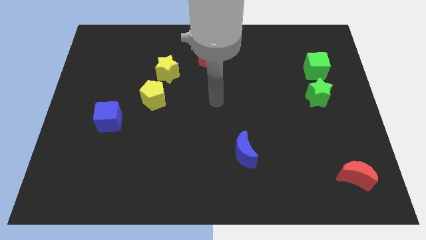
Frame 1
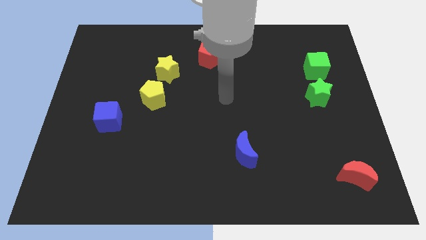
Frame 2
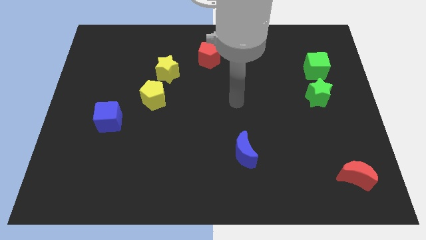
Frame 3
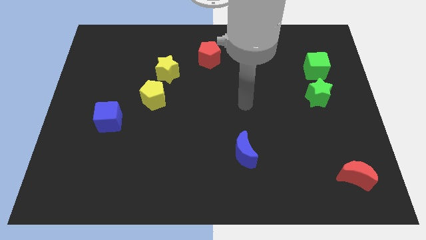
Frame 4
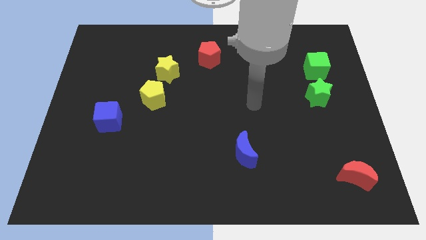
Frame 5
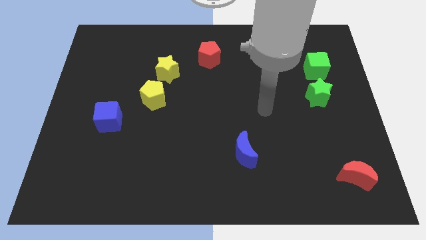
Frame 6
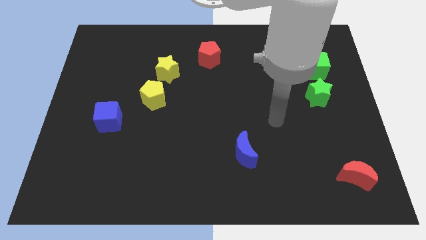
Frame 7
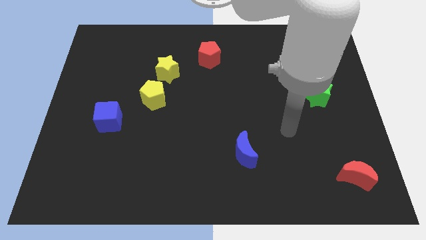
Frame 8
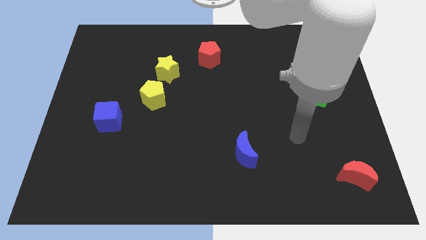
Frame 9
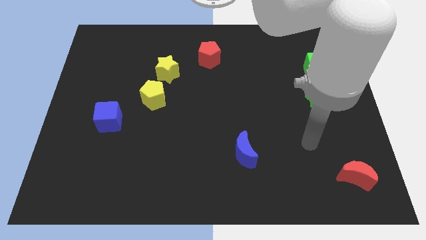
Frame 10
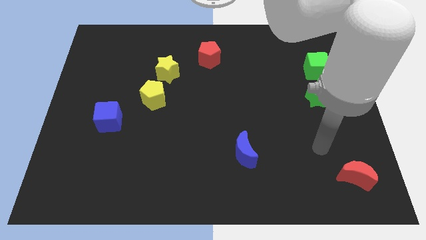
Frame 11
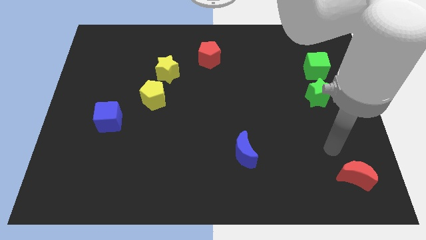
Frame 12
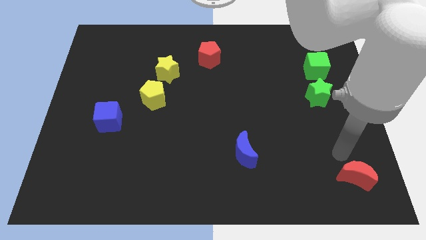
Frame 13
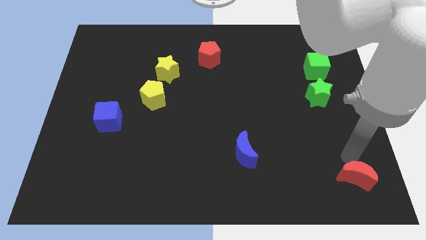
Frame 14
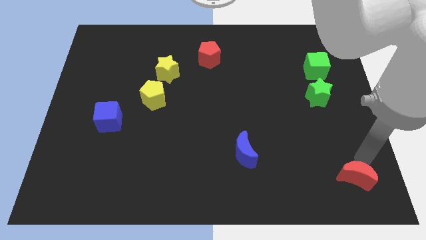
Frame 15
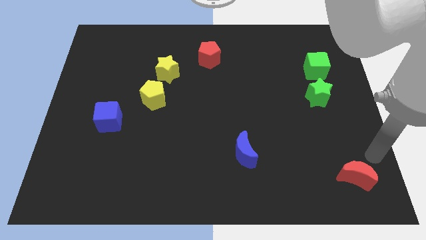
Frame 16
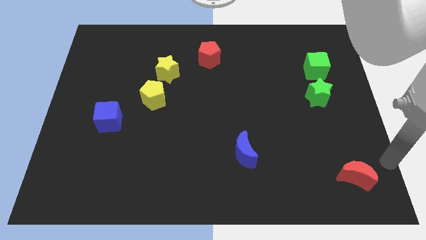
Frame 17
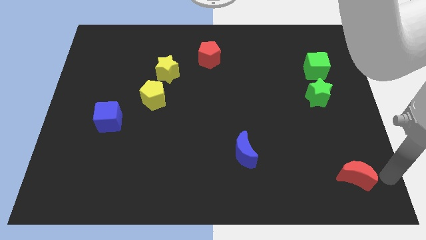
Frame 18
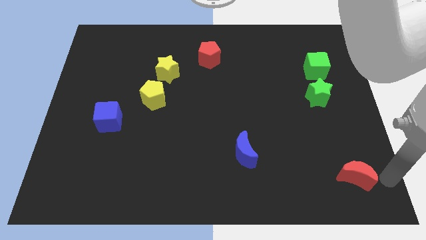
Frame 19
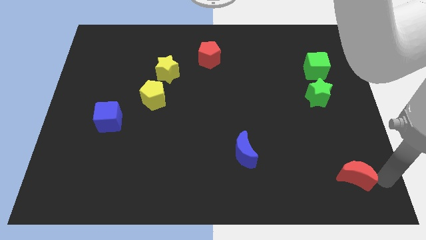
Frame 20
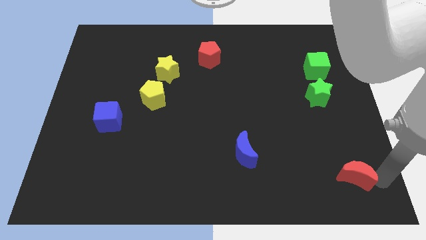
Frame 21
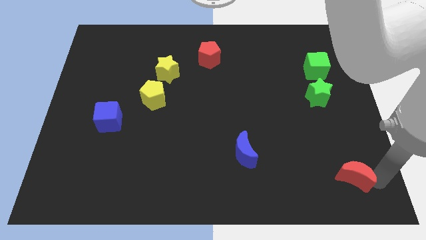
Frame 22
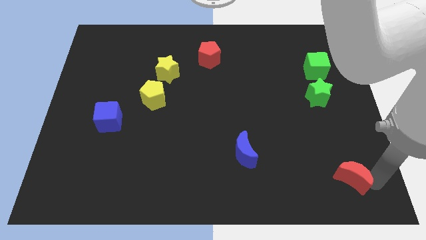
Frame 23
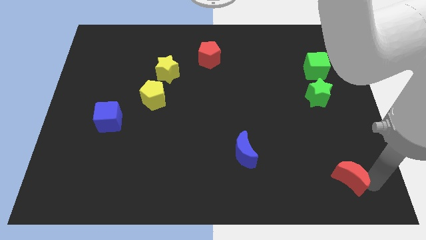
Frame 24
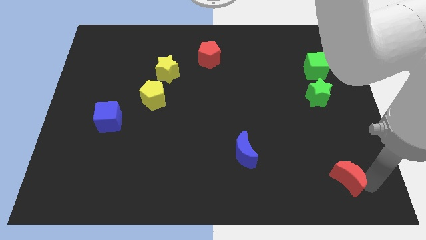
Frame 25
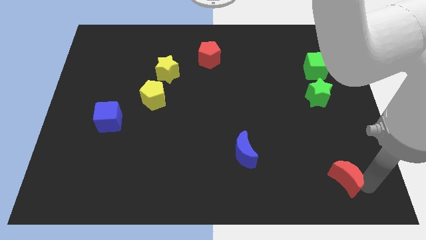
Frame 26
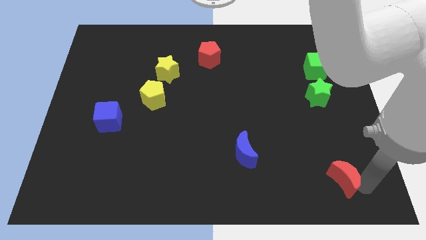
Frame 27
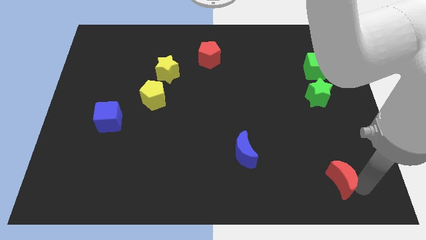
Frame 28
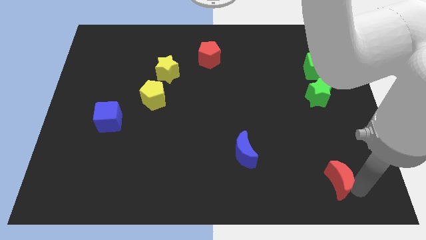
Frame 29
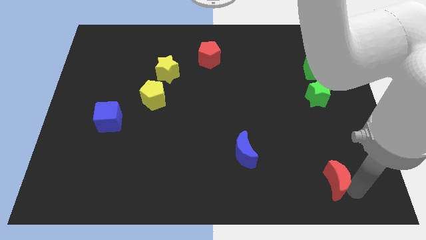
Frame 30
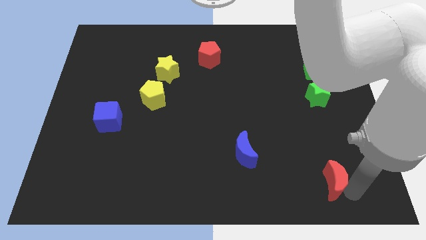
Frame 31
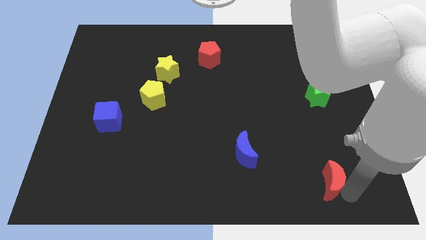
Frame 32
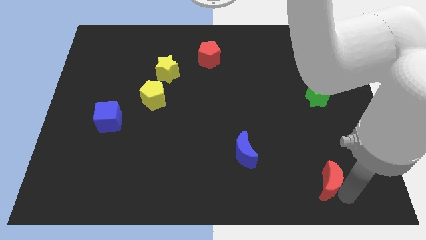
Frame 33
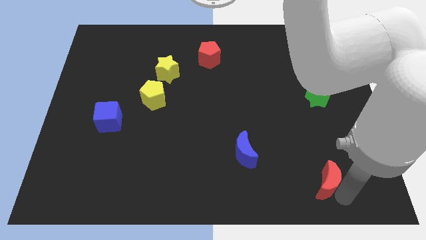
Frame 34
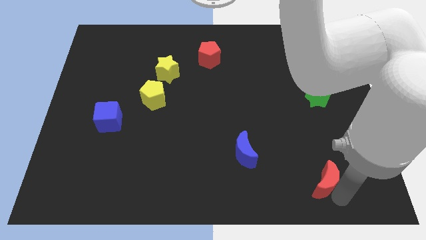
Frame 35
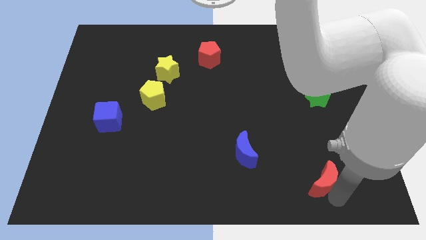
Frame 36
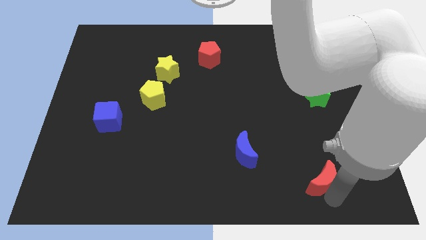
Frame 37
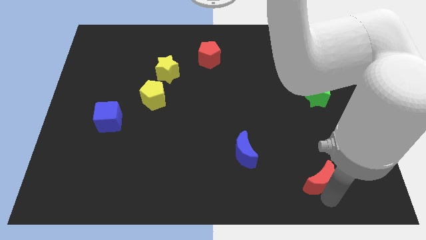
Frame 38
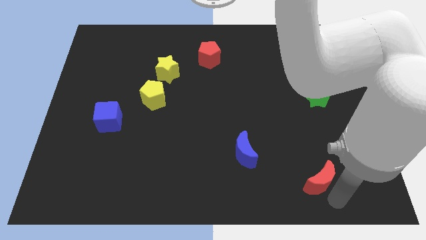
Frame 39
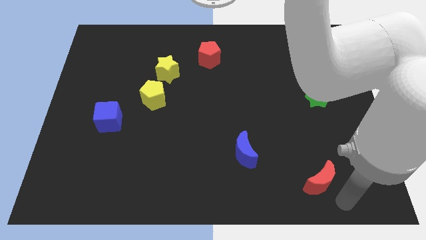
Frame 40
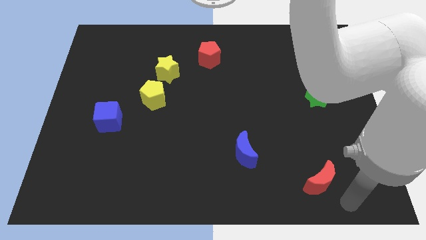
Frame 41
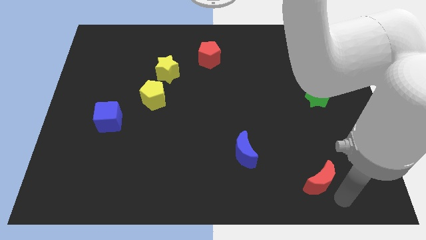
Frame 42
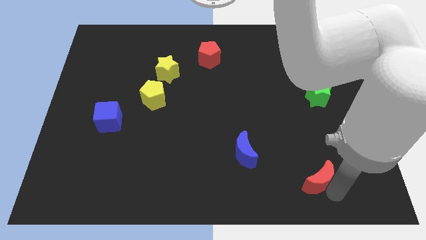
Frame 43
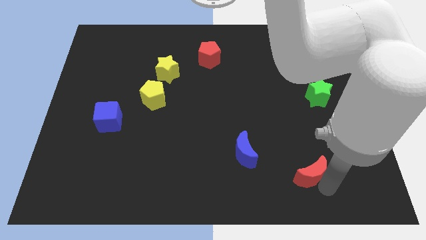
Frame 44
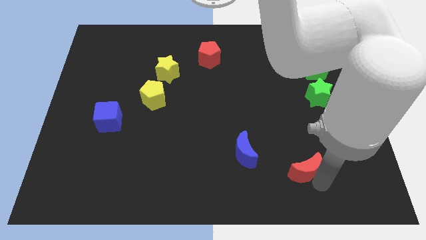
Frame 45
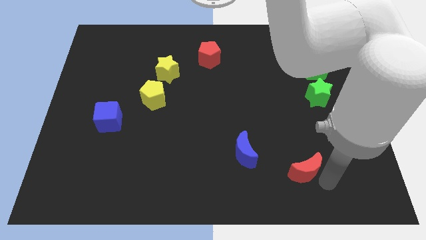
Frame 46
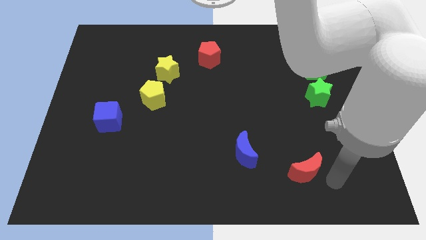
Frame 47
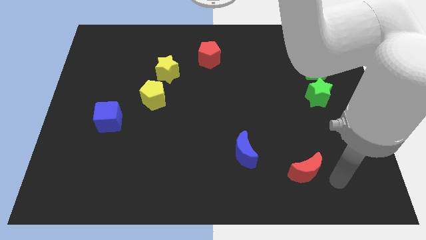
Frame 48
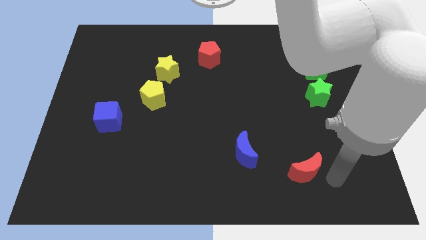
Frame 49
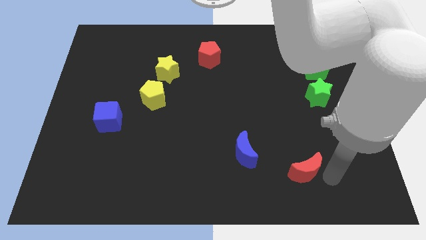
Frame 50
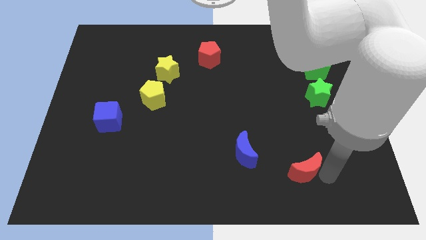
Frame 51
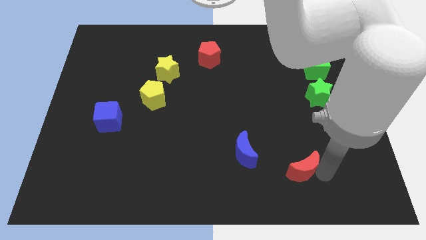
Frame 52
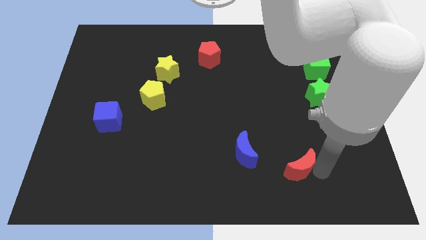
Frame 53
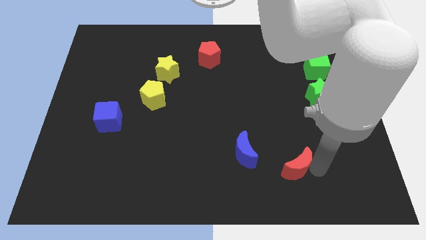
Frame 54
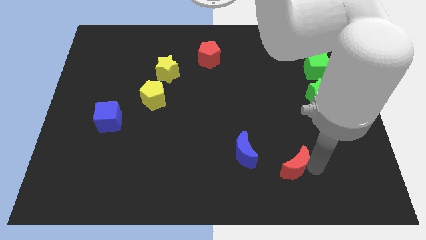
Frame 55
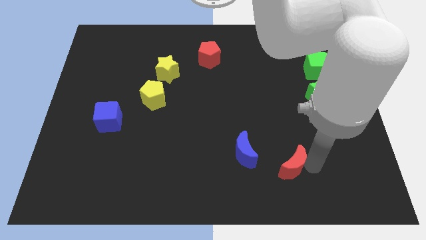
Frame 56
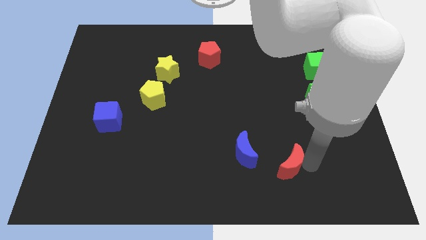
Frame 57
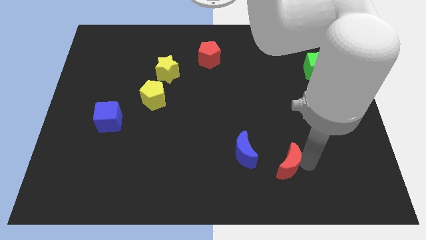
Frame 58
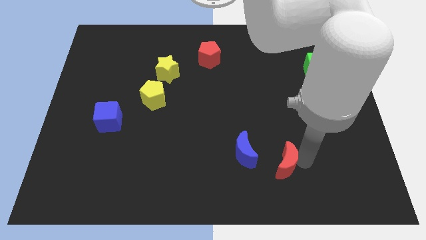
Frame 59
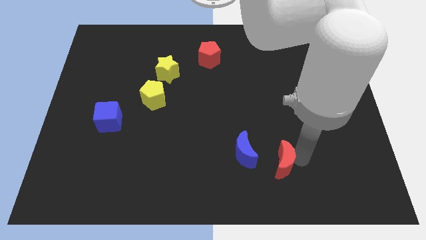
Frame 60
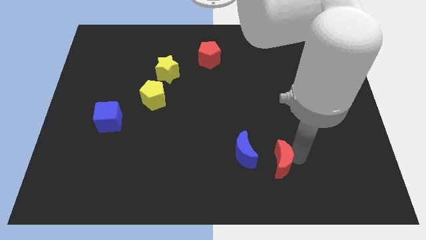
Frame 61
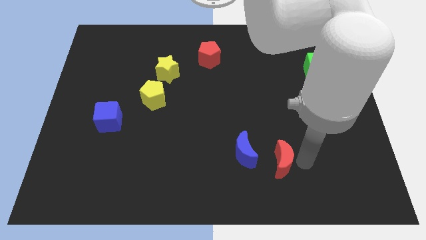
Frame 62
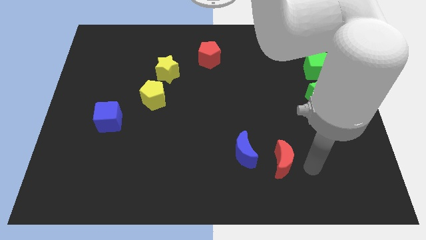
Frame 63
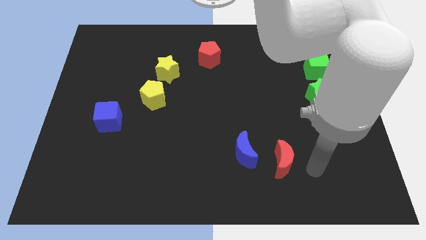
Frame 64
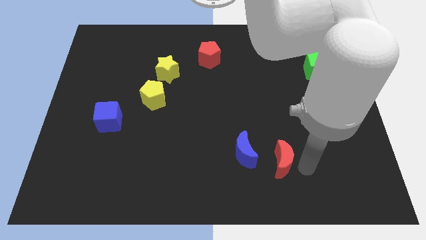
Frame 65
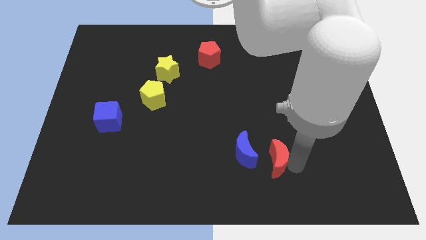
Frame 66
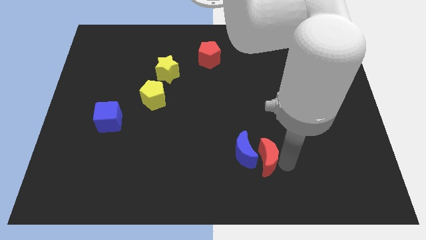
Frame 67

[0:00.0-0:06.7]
move the red moon towards the blue moon
